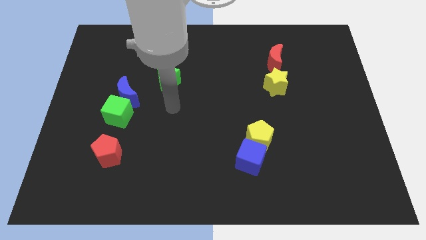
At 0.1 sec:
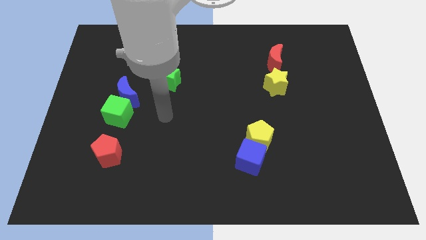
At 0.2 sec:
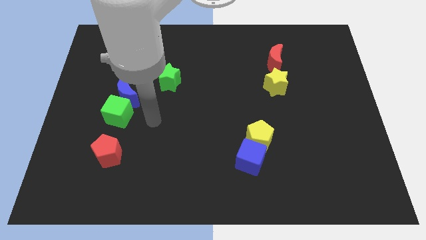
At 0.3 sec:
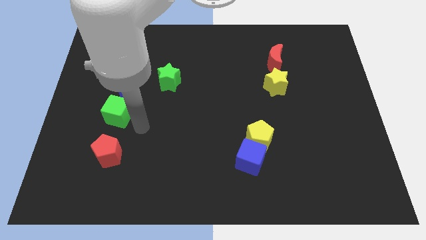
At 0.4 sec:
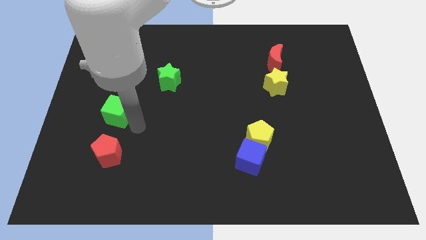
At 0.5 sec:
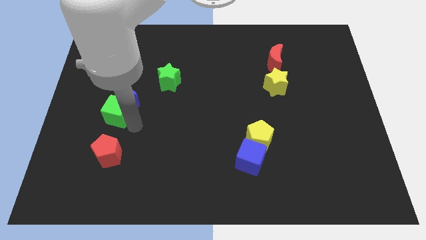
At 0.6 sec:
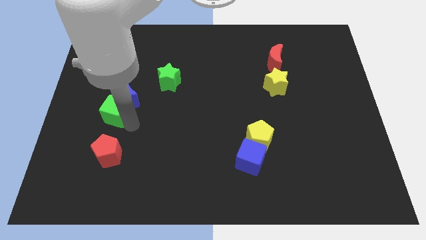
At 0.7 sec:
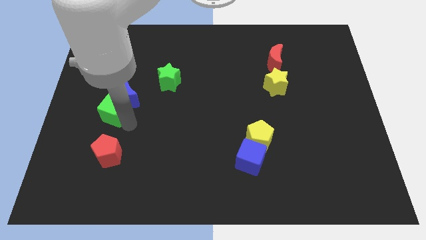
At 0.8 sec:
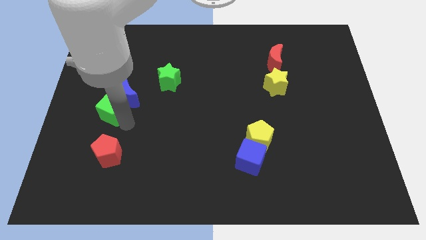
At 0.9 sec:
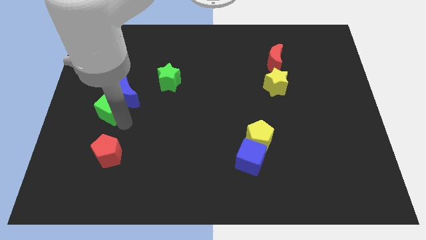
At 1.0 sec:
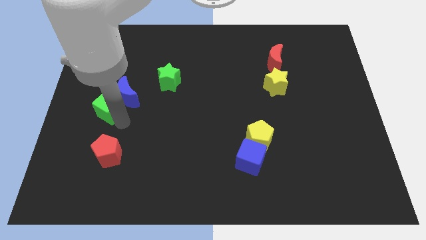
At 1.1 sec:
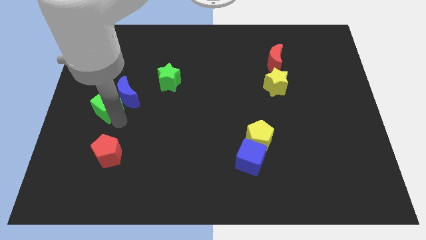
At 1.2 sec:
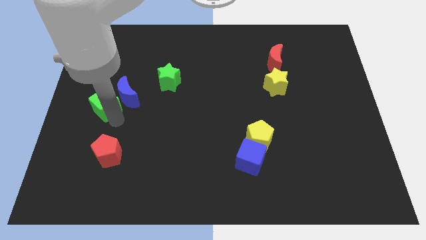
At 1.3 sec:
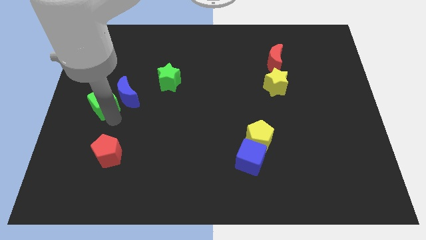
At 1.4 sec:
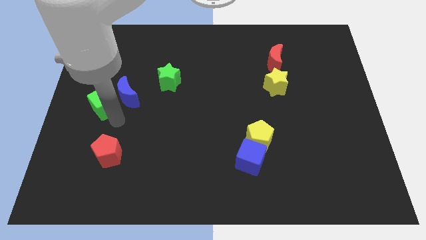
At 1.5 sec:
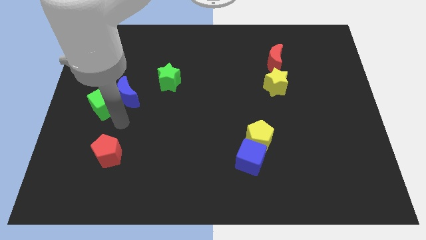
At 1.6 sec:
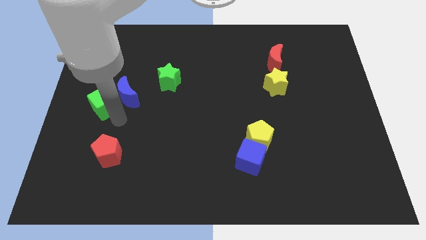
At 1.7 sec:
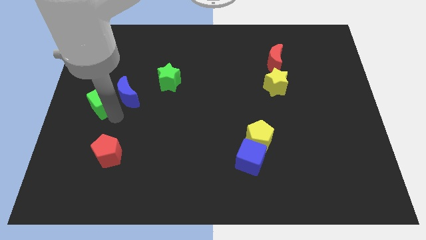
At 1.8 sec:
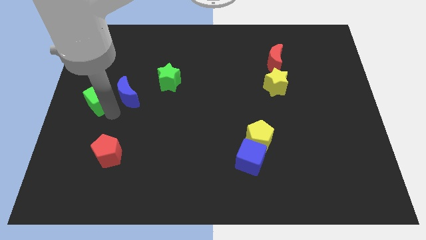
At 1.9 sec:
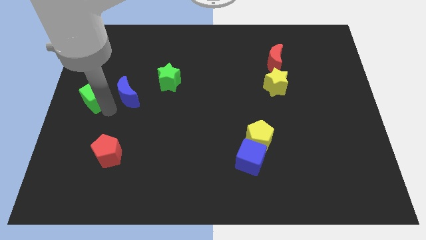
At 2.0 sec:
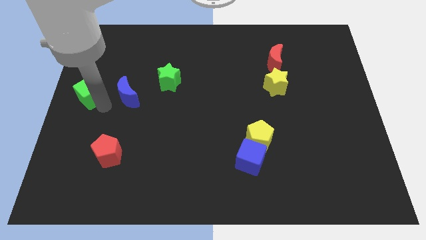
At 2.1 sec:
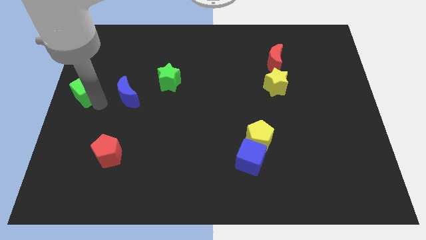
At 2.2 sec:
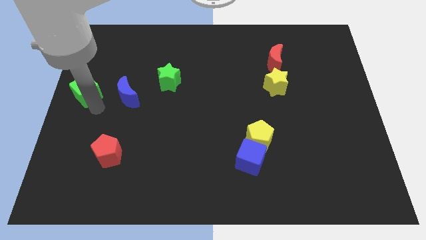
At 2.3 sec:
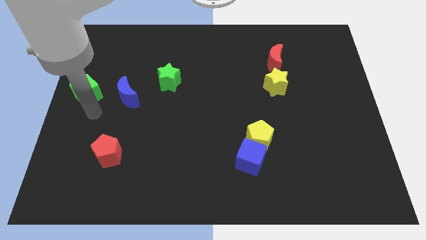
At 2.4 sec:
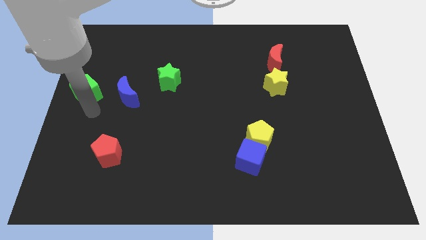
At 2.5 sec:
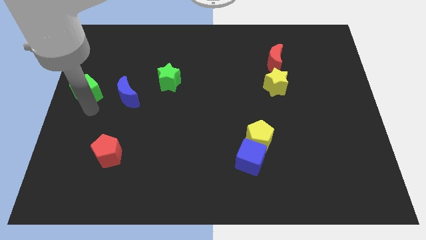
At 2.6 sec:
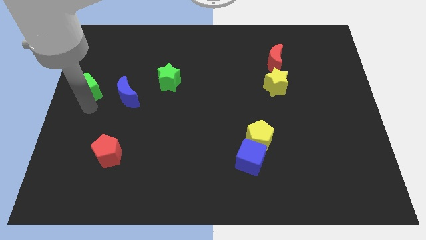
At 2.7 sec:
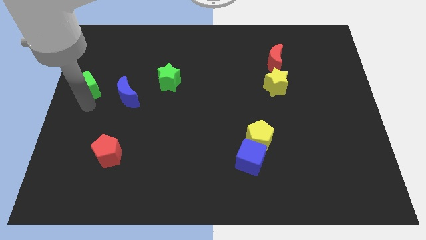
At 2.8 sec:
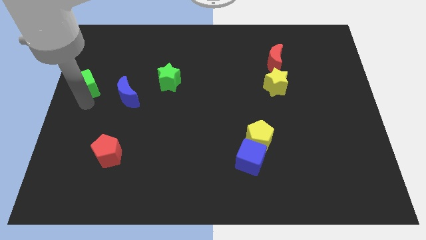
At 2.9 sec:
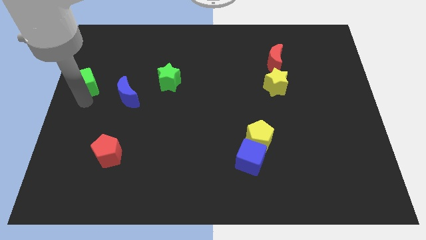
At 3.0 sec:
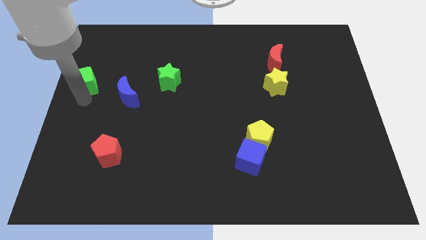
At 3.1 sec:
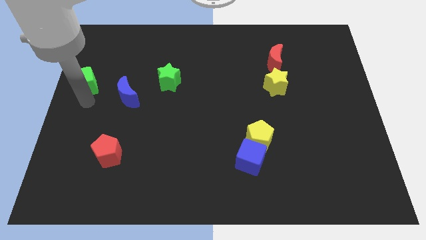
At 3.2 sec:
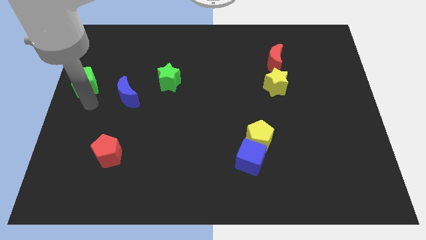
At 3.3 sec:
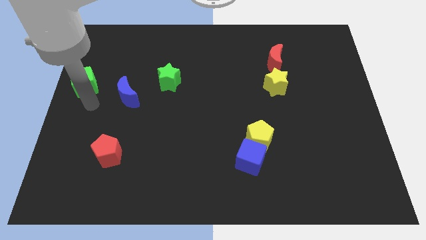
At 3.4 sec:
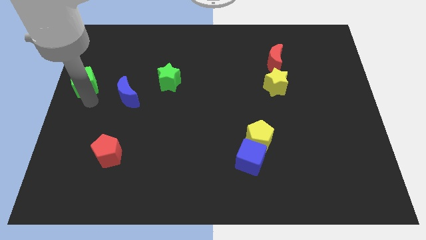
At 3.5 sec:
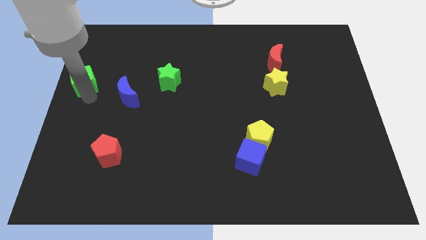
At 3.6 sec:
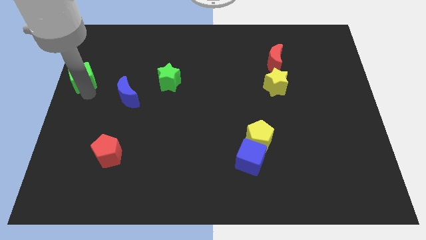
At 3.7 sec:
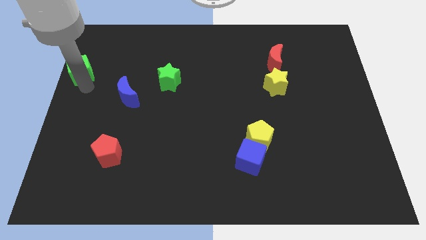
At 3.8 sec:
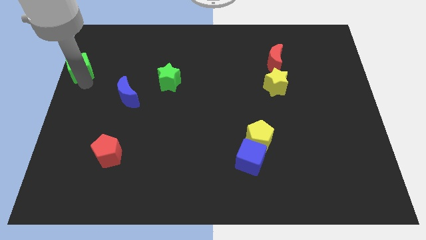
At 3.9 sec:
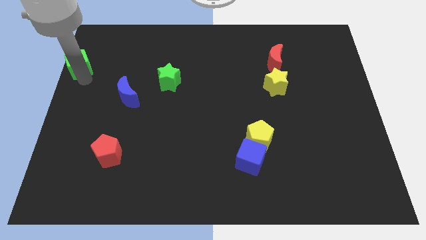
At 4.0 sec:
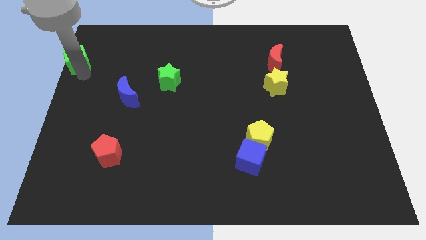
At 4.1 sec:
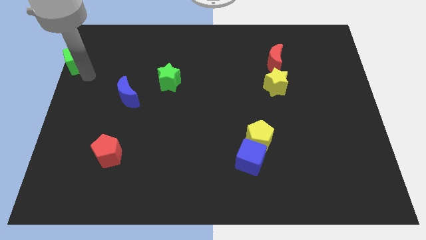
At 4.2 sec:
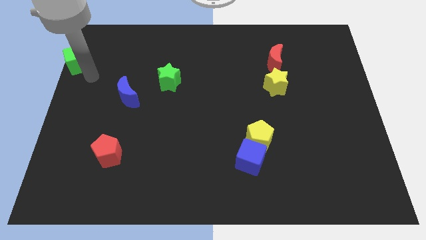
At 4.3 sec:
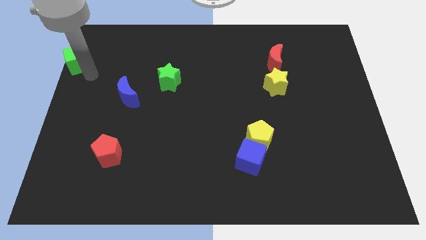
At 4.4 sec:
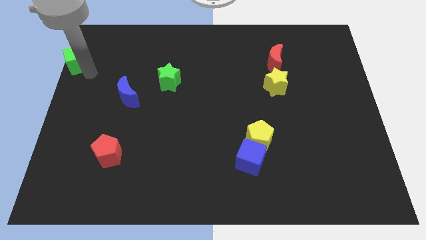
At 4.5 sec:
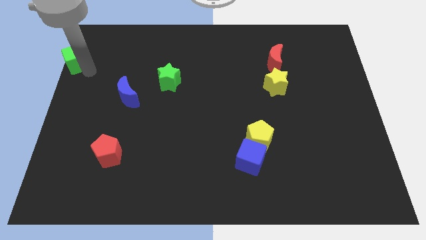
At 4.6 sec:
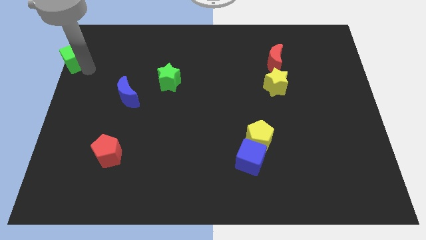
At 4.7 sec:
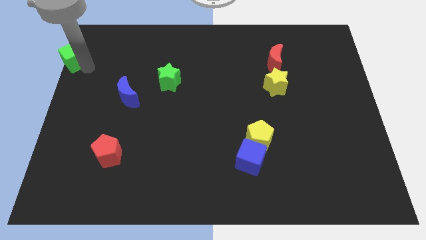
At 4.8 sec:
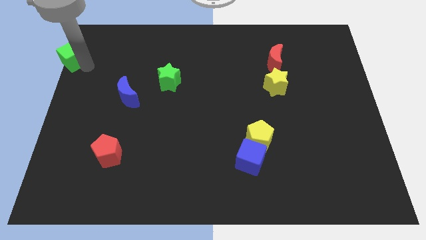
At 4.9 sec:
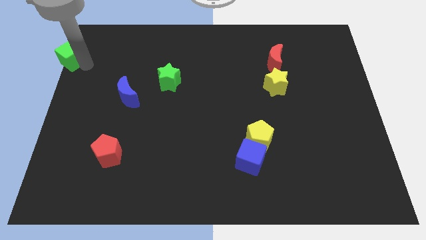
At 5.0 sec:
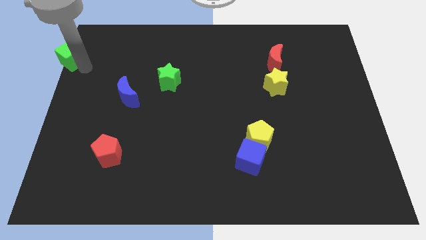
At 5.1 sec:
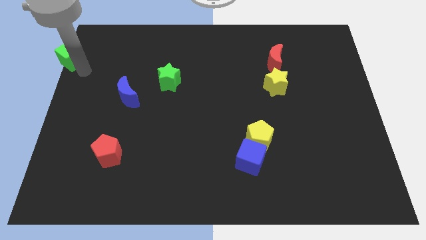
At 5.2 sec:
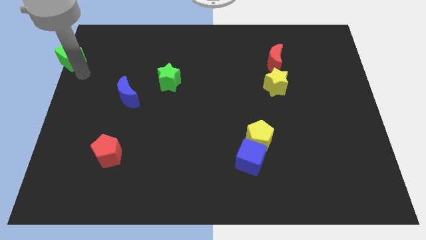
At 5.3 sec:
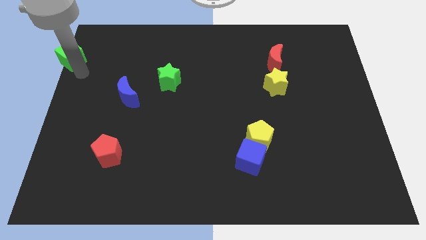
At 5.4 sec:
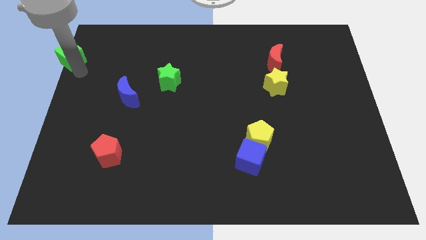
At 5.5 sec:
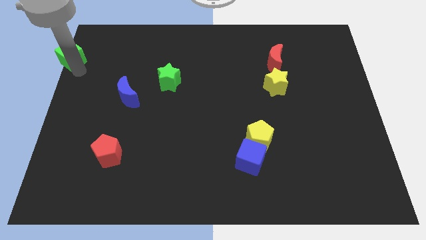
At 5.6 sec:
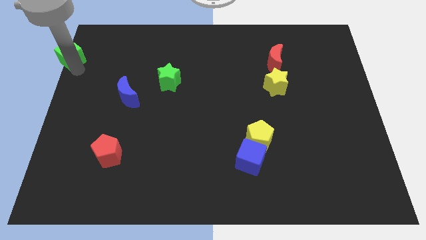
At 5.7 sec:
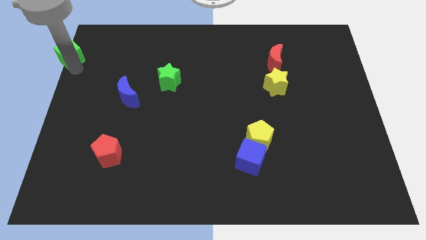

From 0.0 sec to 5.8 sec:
put the green cube to the top left corner

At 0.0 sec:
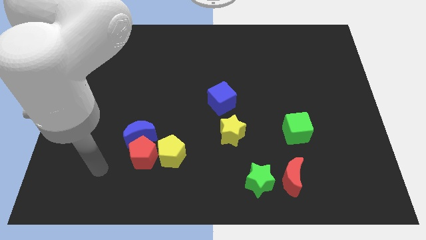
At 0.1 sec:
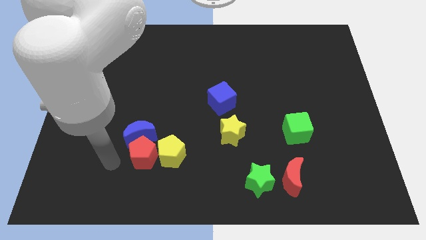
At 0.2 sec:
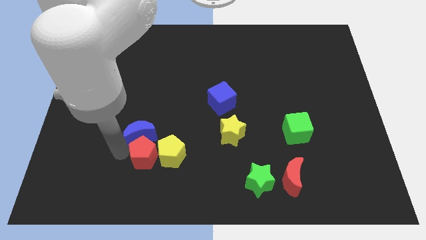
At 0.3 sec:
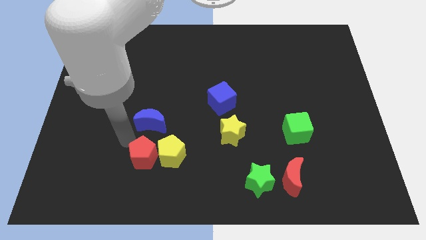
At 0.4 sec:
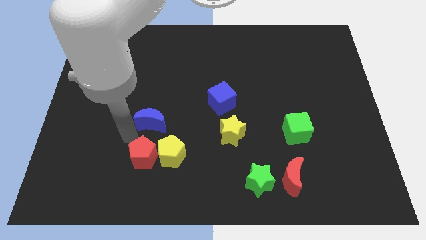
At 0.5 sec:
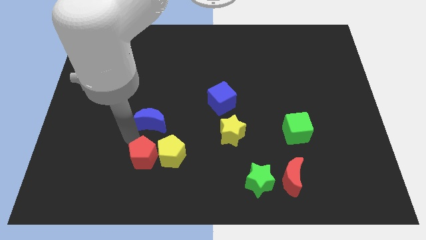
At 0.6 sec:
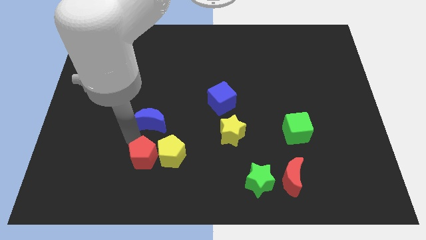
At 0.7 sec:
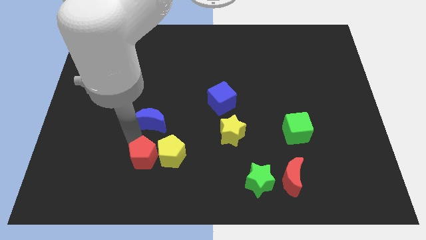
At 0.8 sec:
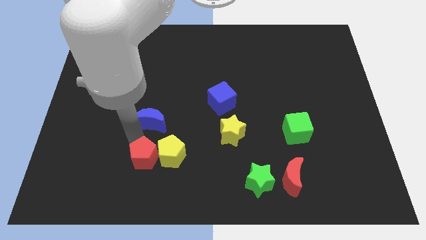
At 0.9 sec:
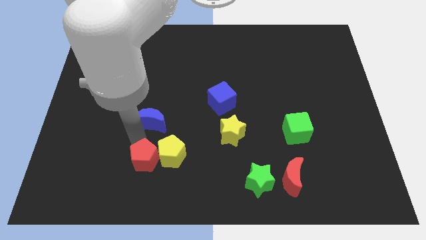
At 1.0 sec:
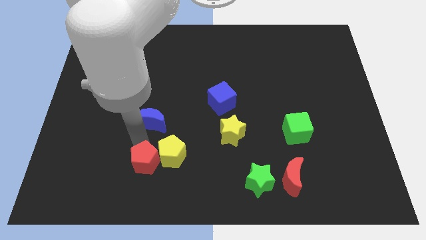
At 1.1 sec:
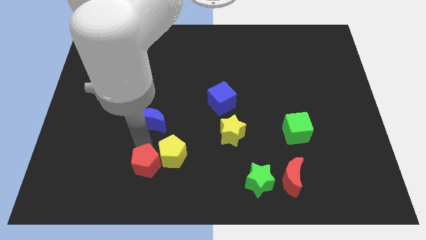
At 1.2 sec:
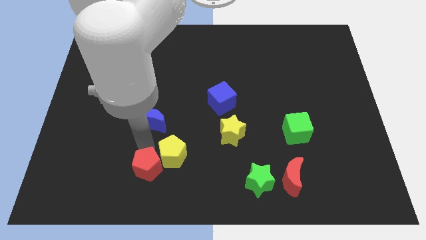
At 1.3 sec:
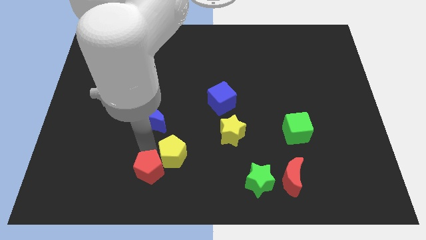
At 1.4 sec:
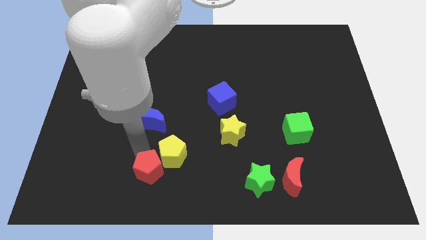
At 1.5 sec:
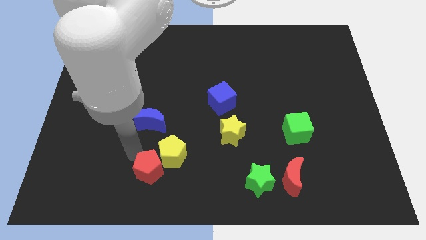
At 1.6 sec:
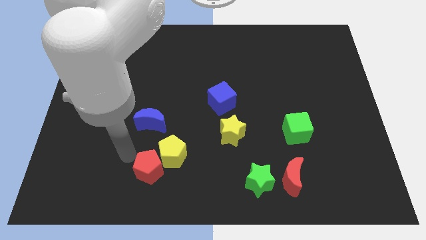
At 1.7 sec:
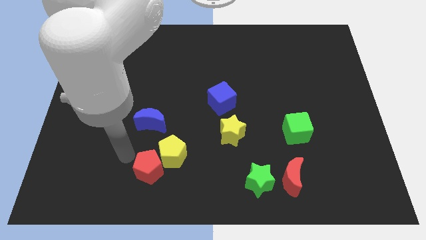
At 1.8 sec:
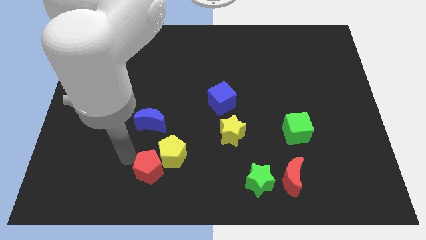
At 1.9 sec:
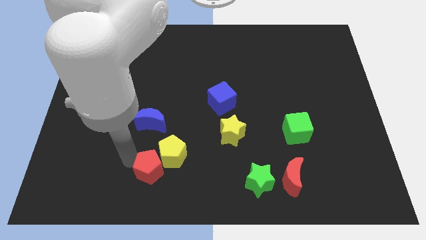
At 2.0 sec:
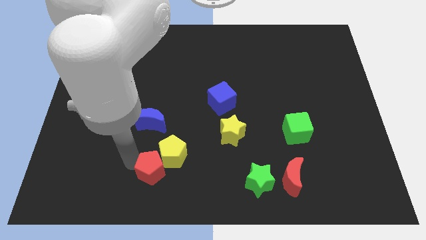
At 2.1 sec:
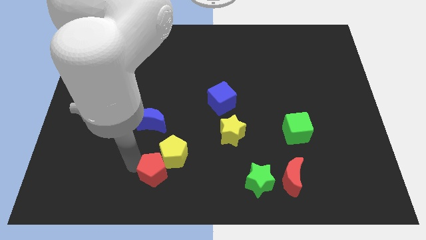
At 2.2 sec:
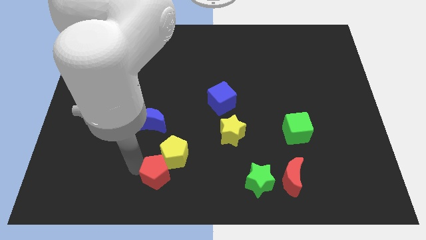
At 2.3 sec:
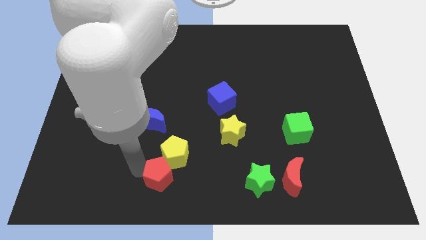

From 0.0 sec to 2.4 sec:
slide the red pentagon to the bottom side
